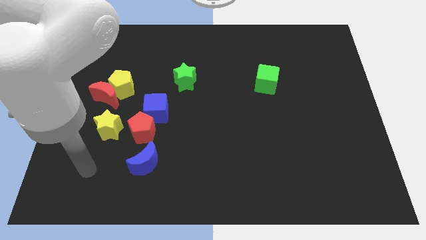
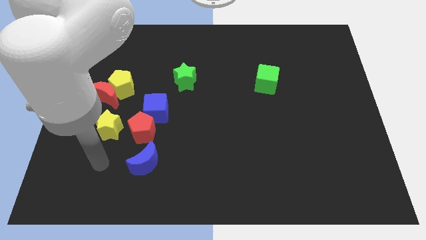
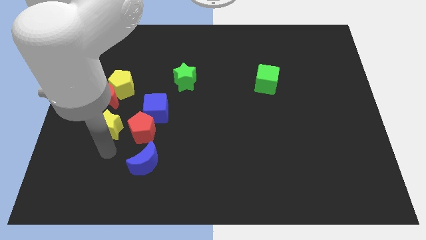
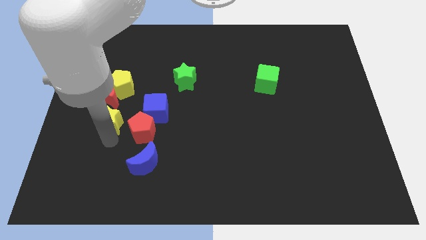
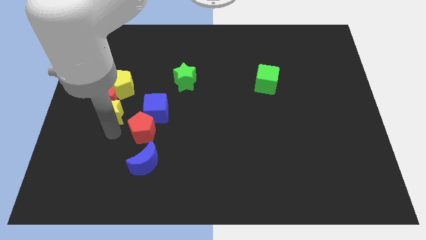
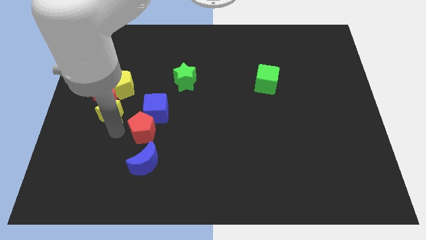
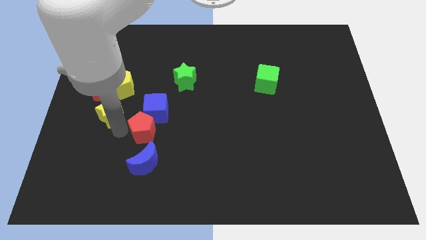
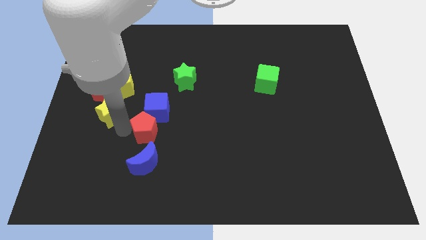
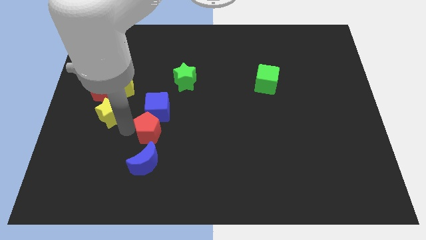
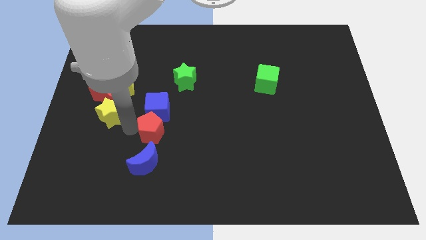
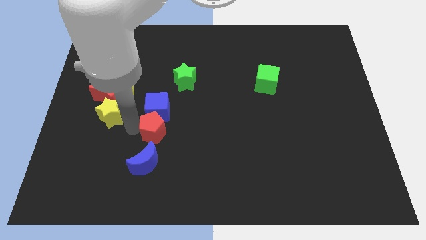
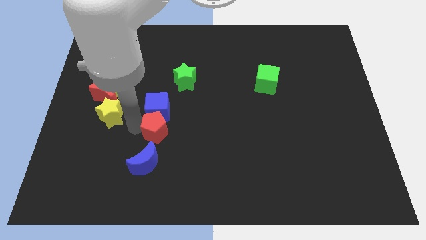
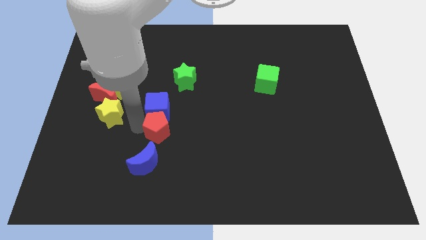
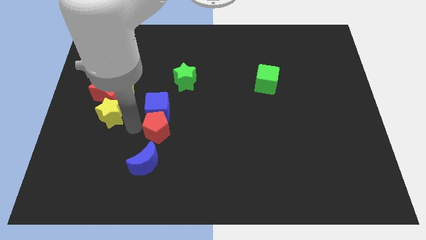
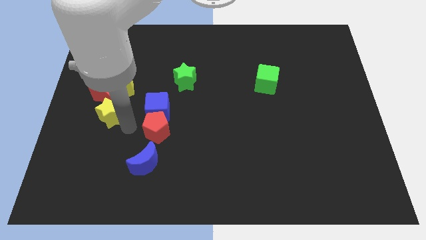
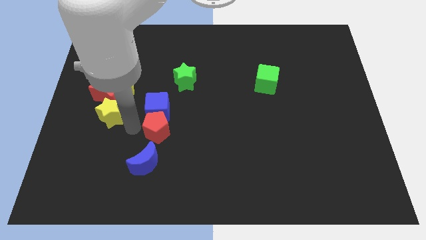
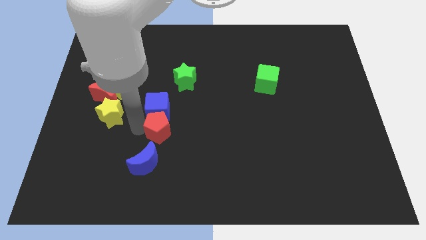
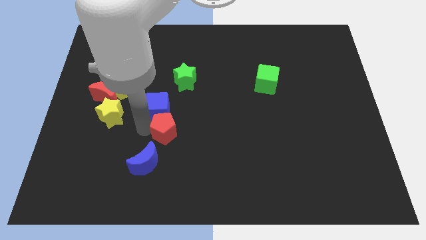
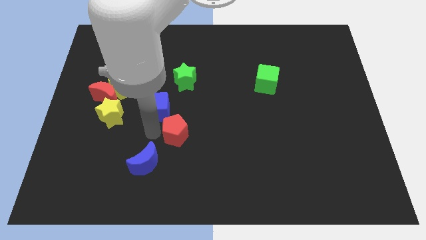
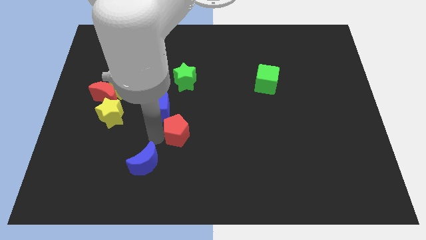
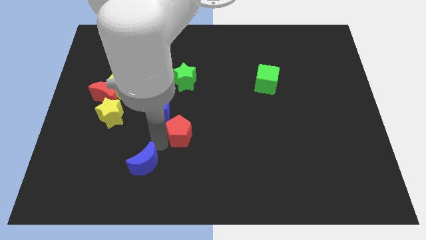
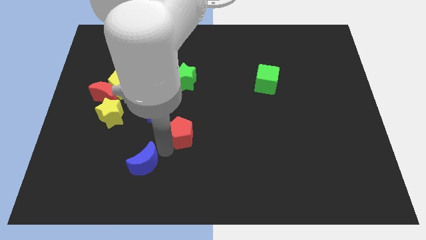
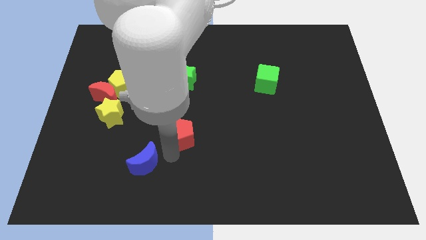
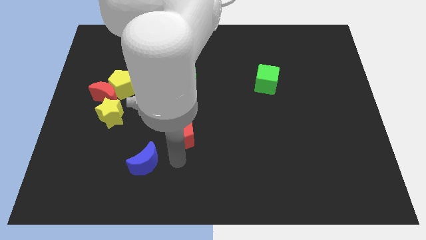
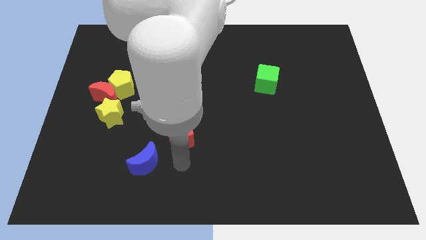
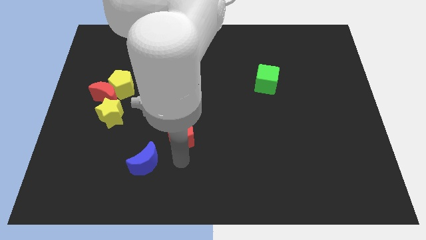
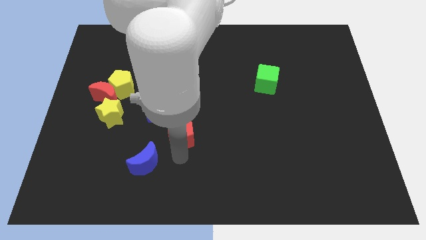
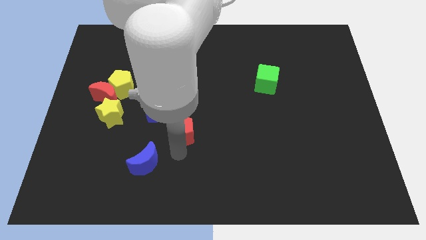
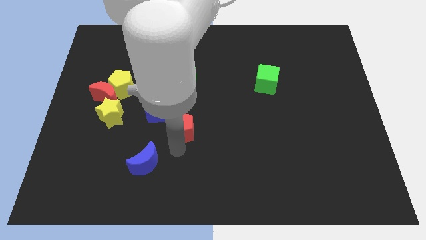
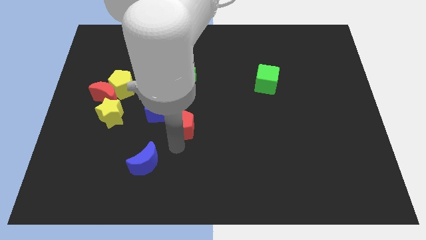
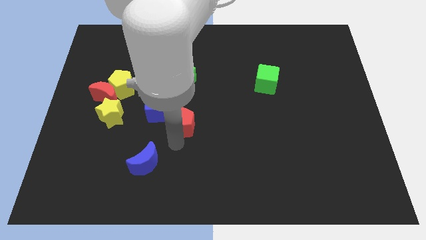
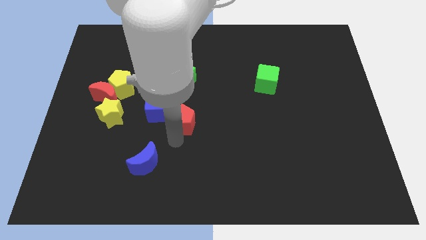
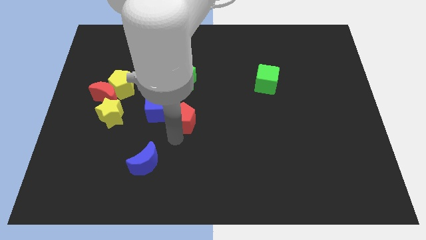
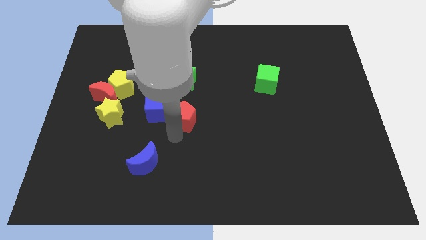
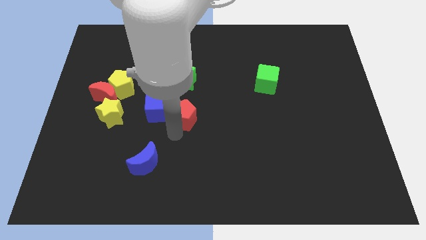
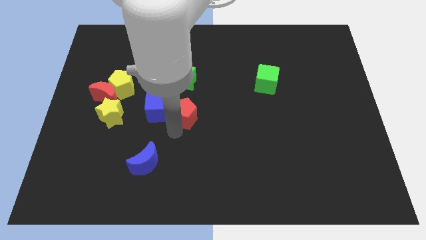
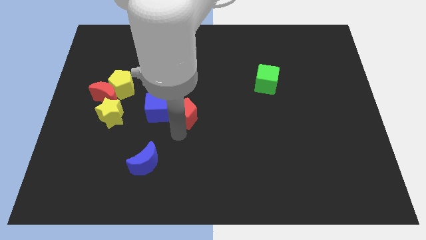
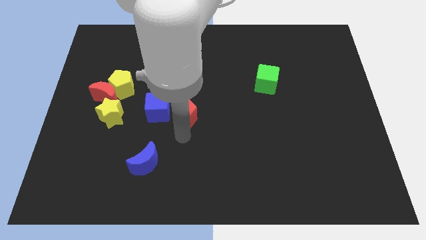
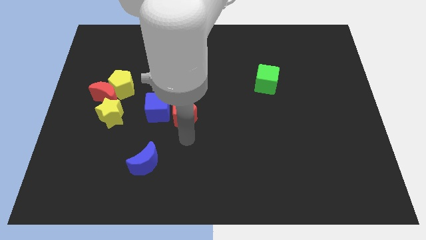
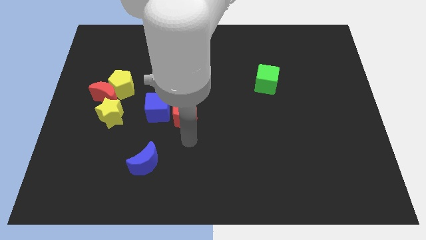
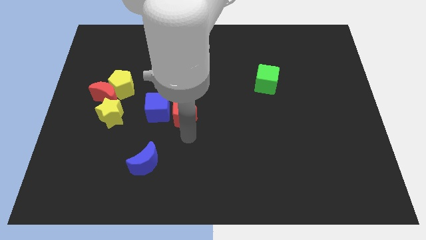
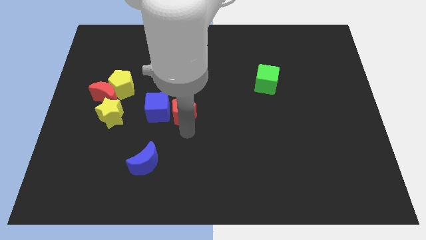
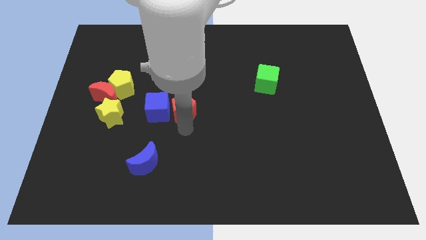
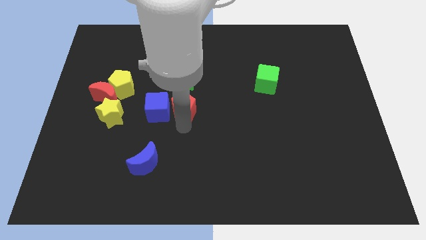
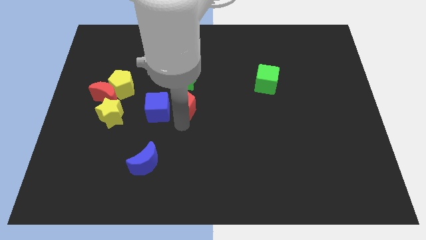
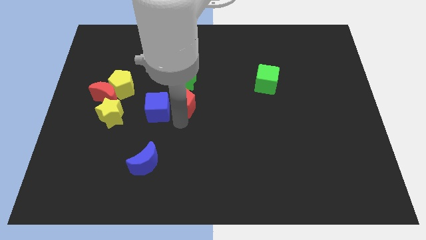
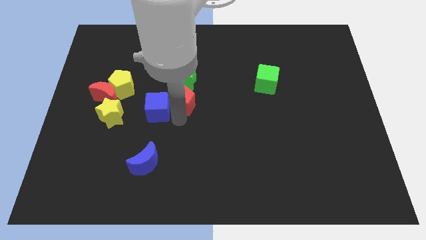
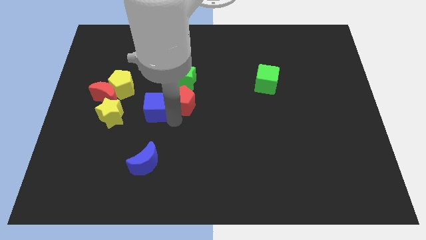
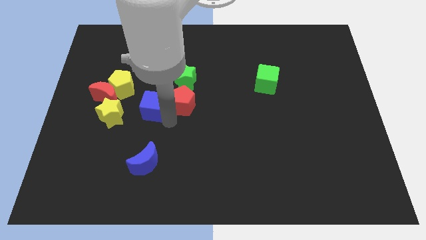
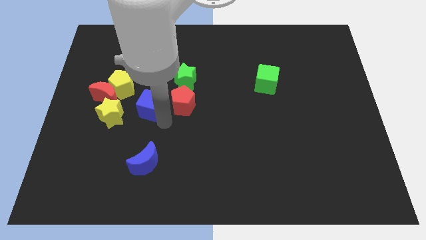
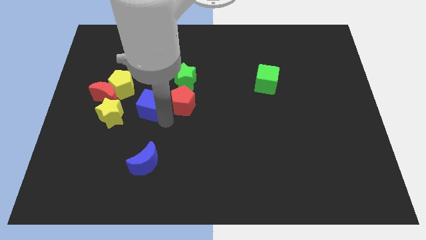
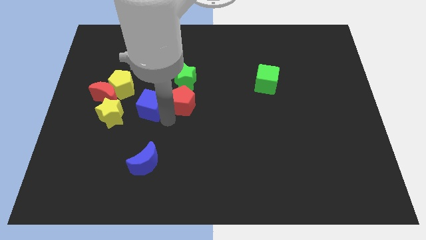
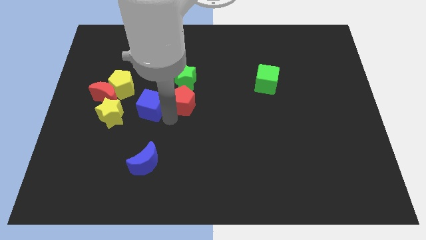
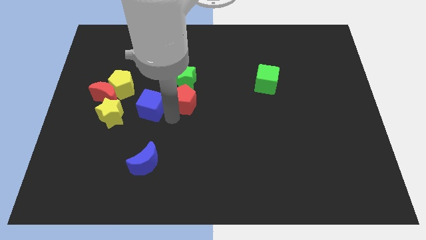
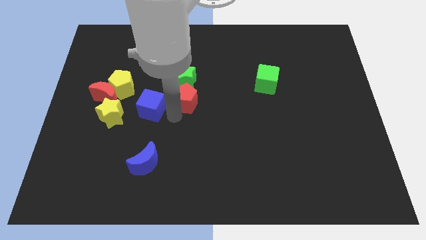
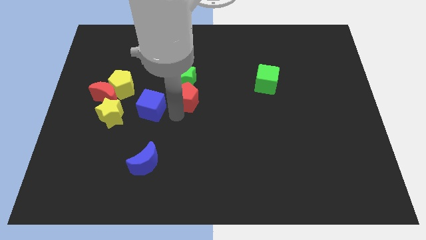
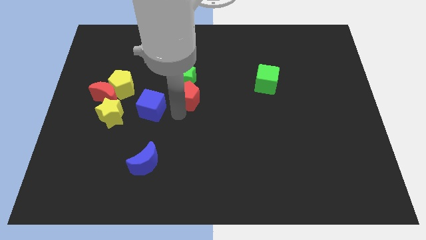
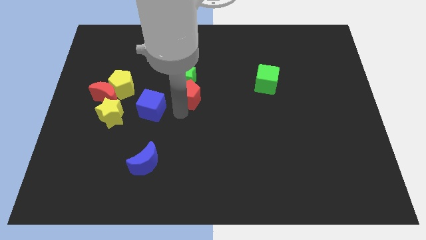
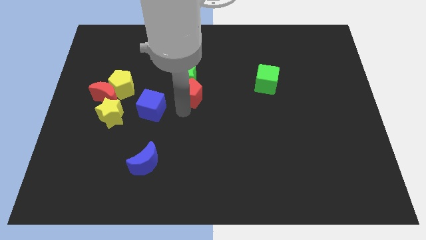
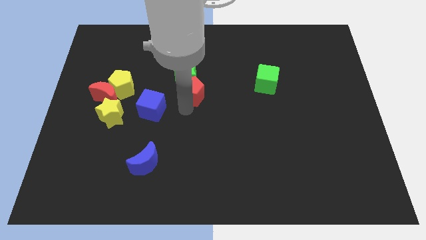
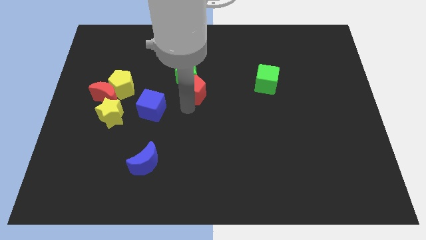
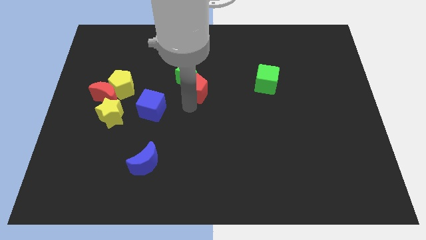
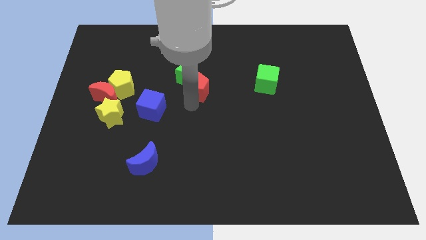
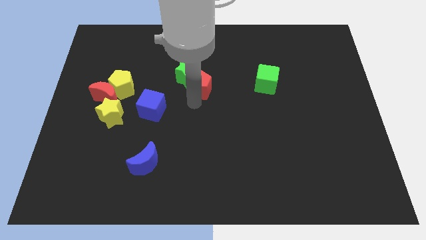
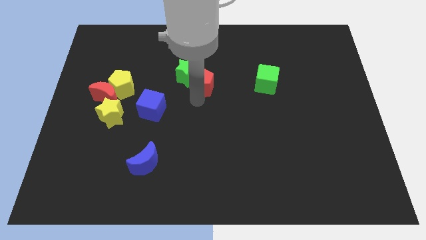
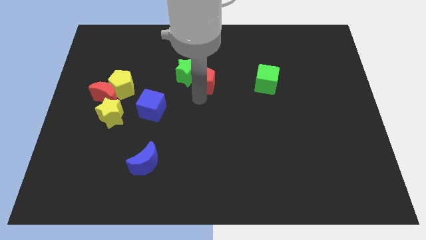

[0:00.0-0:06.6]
move the red pentagon up and then to the right

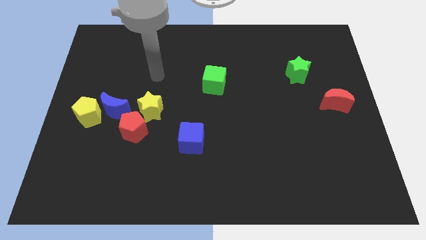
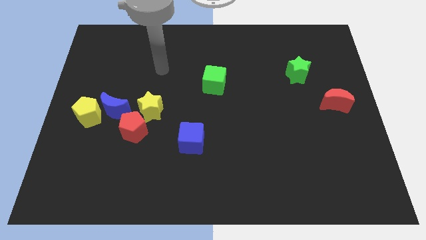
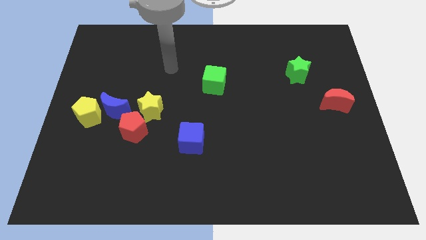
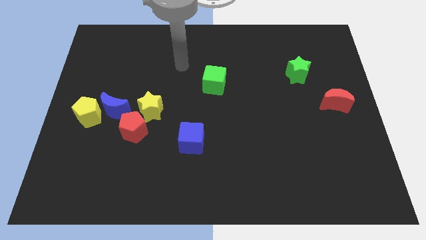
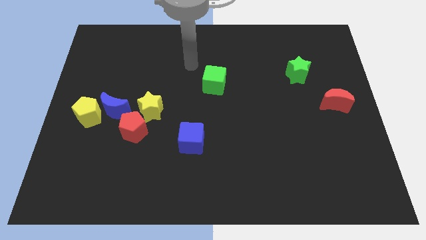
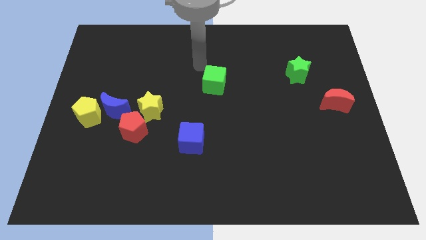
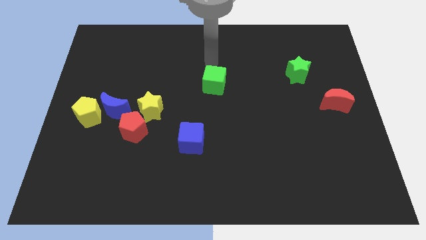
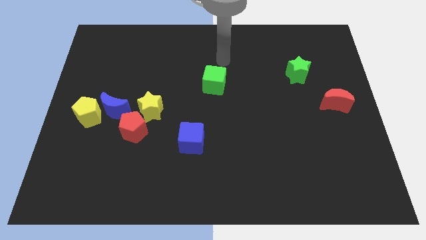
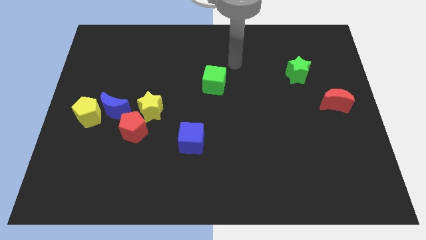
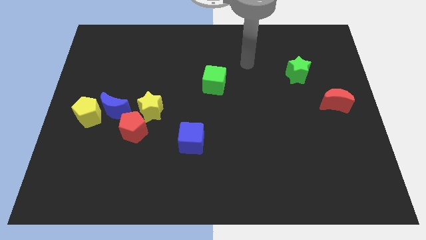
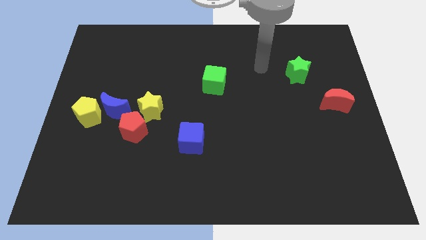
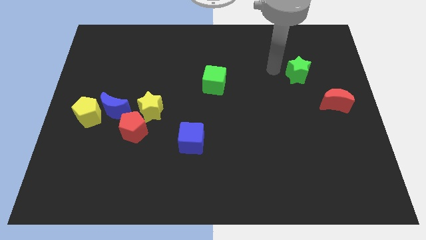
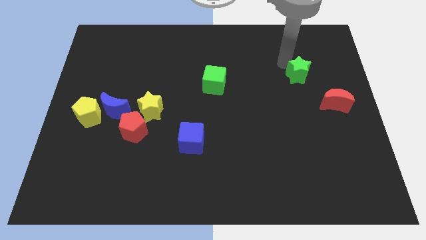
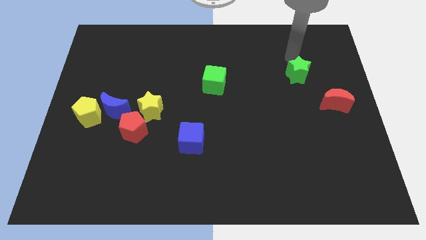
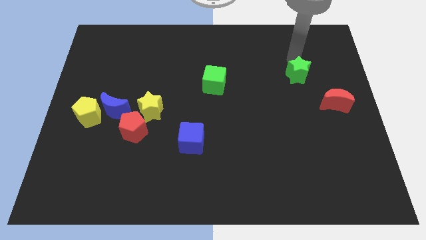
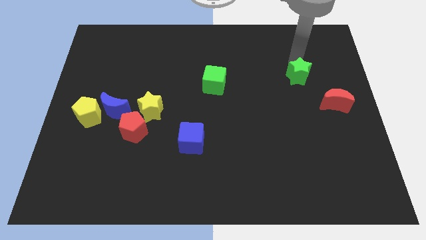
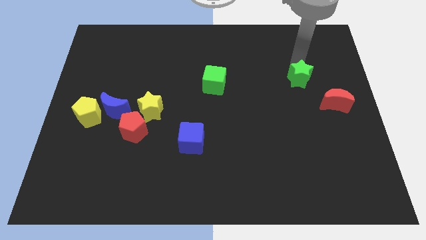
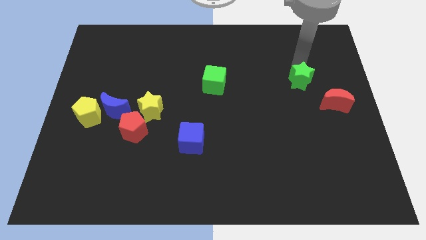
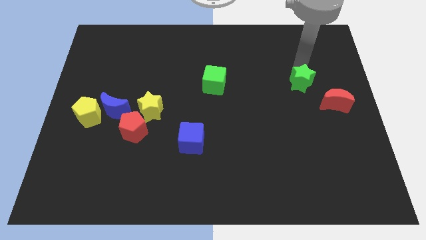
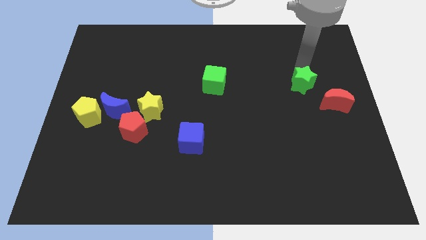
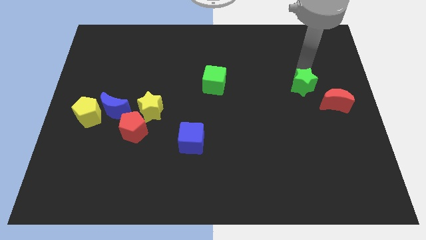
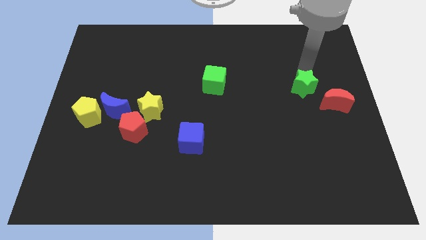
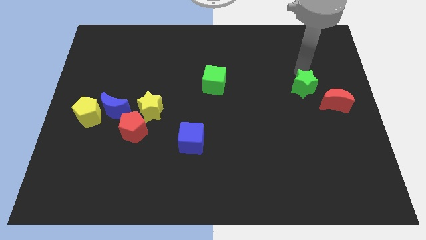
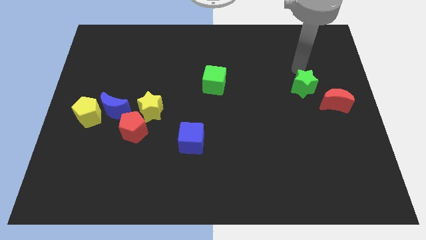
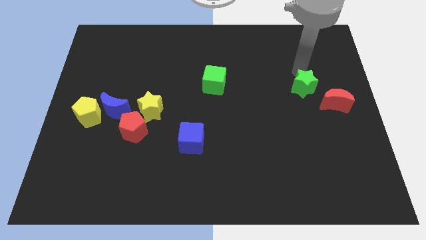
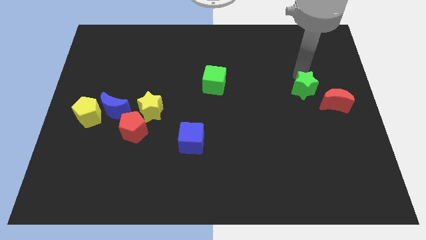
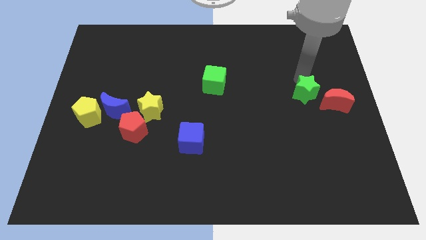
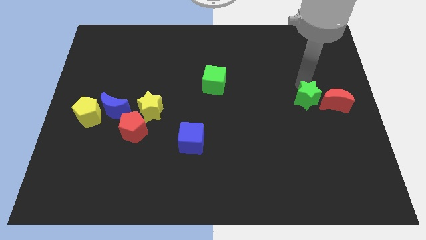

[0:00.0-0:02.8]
slightly move the green star down
